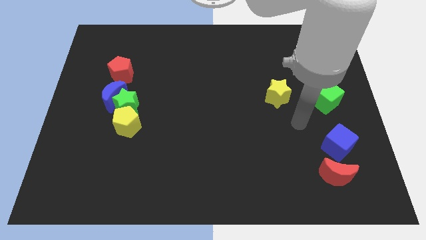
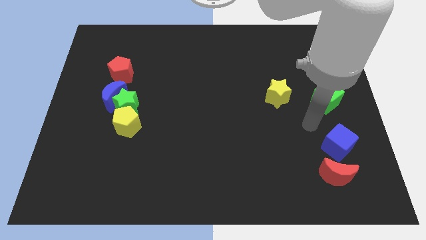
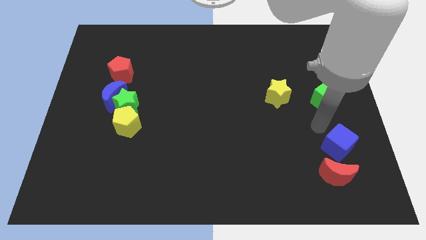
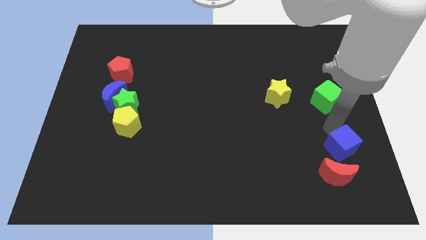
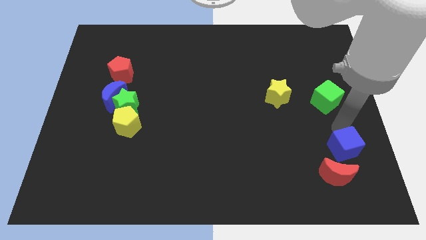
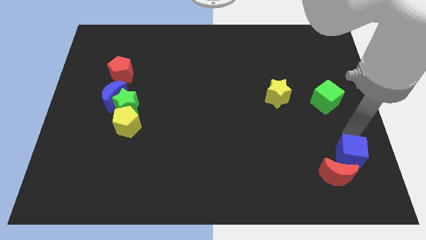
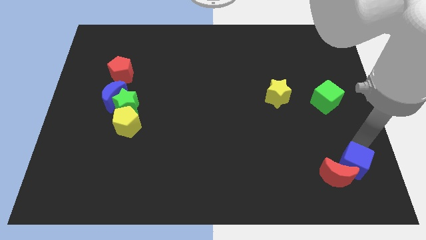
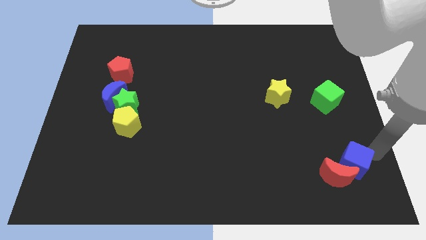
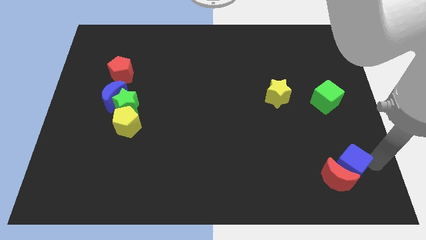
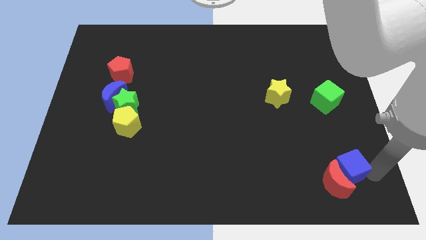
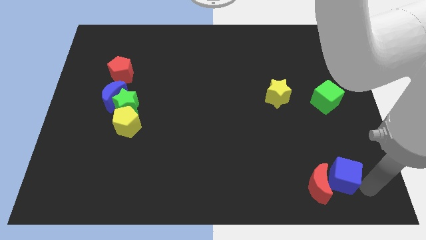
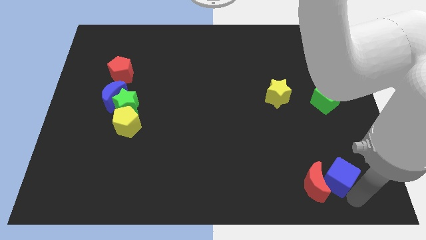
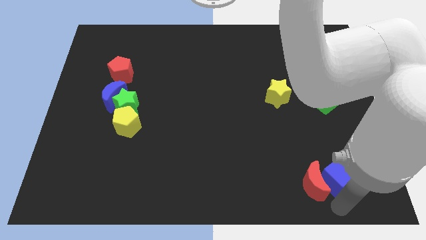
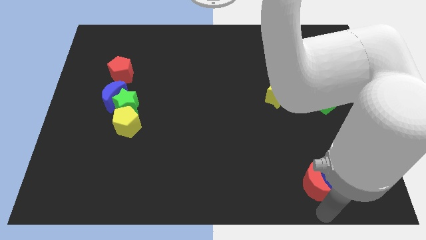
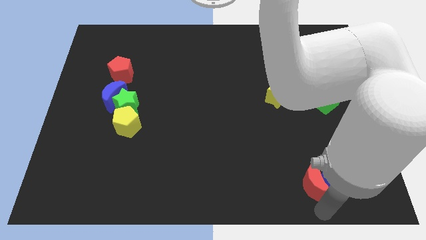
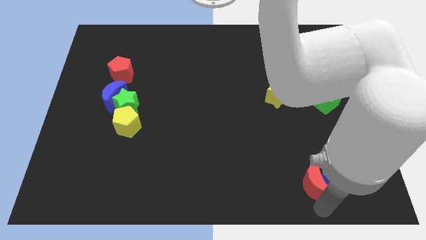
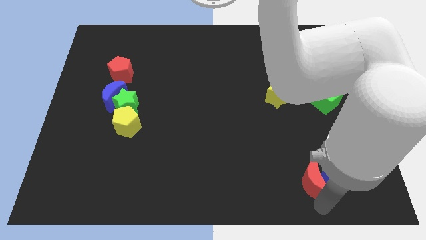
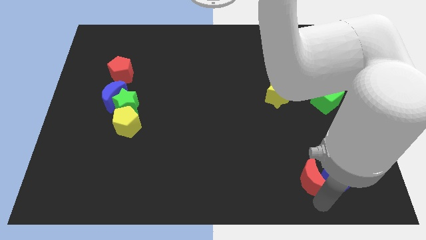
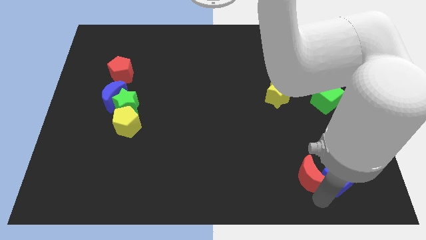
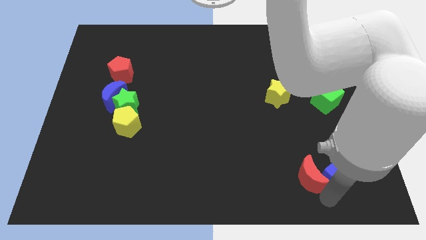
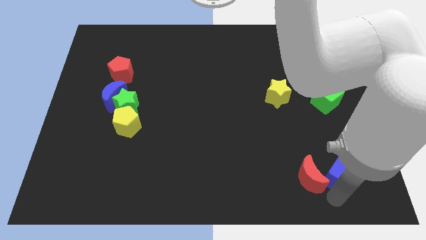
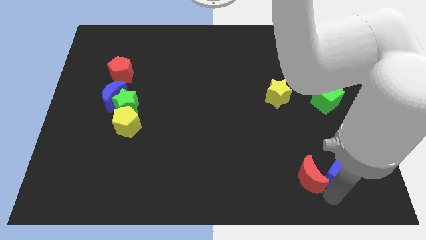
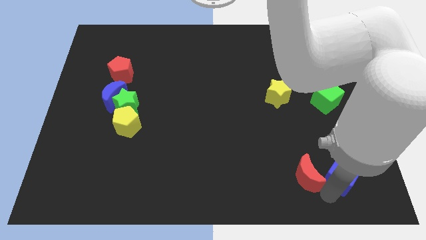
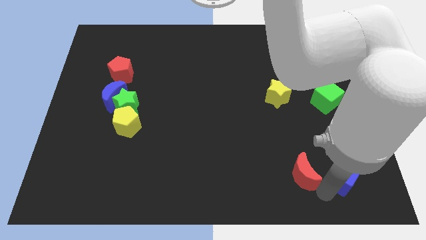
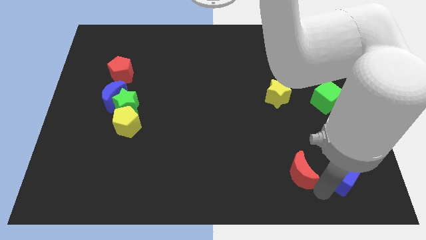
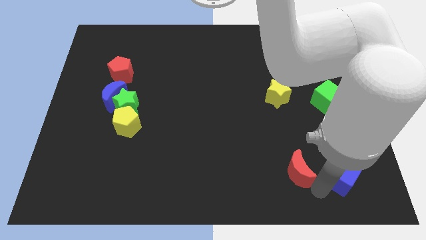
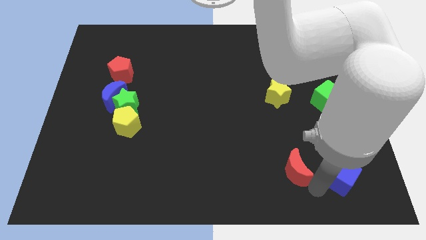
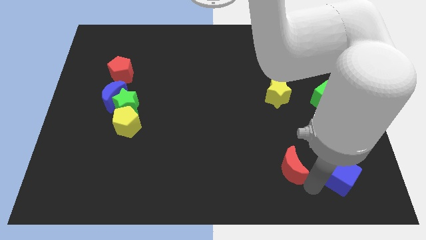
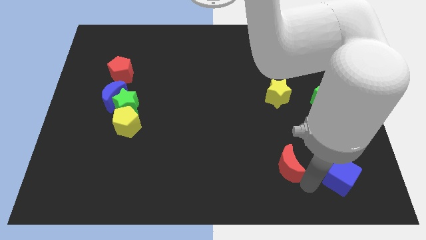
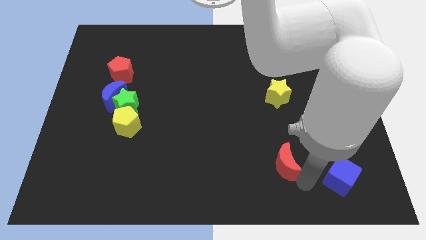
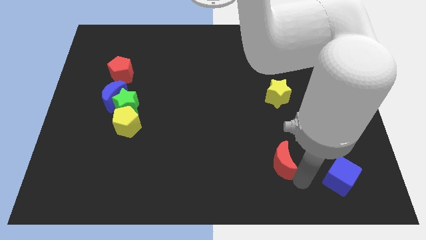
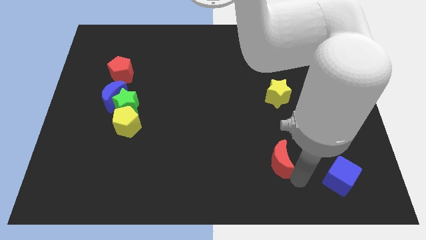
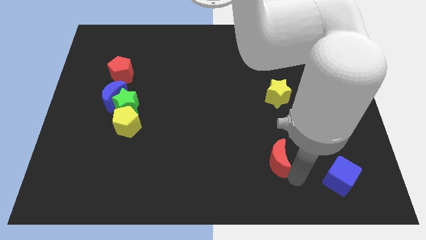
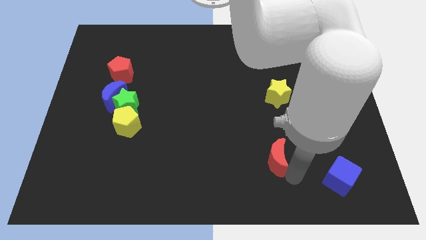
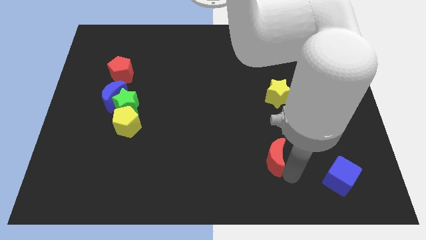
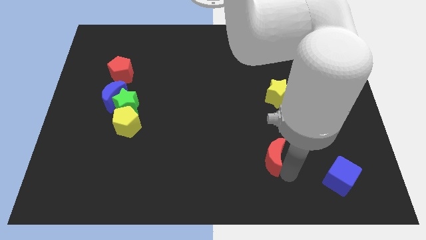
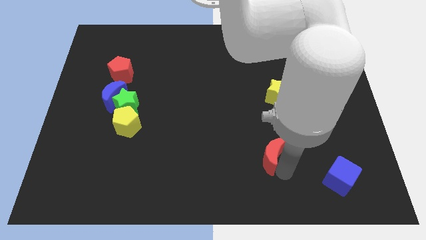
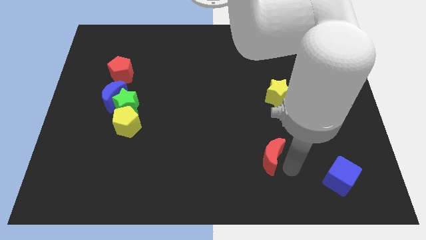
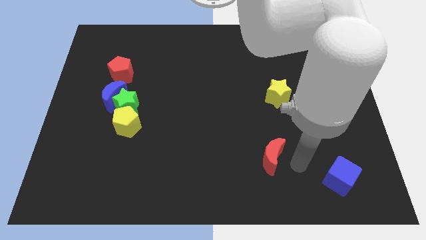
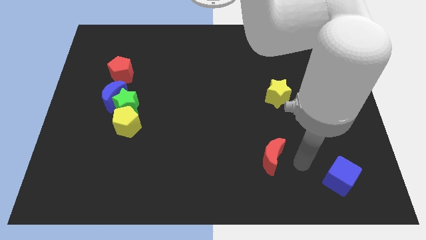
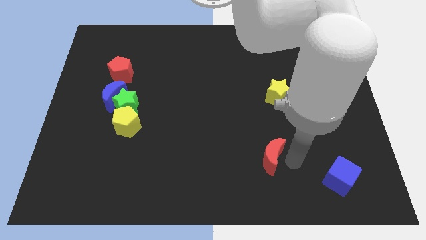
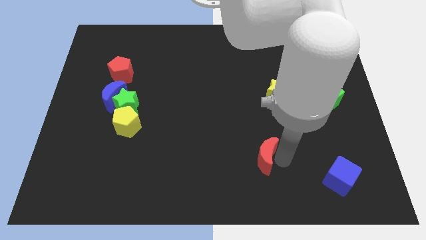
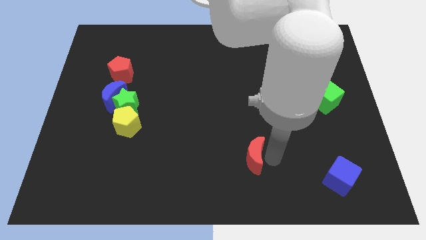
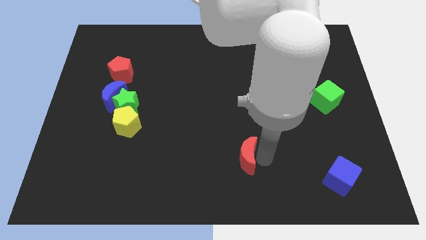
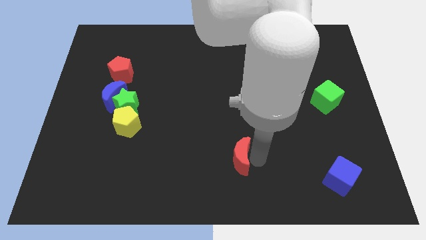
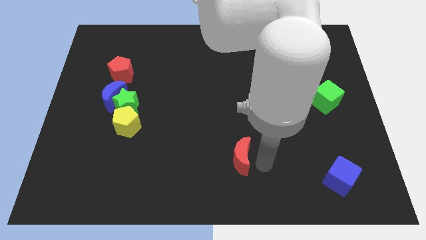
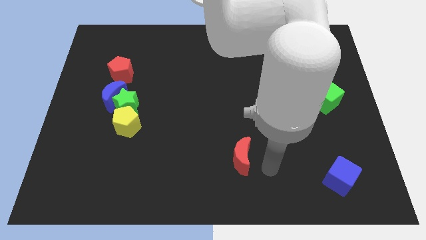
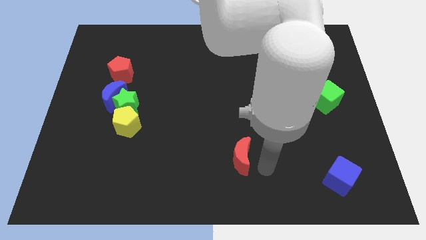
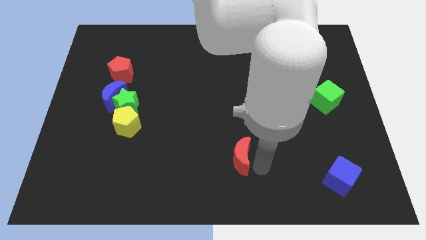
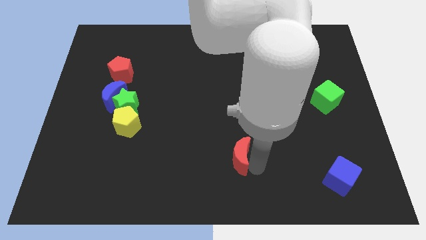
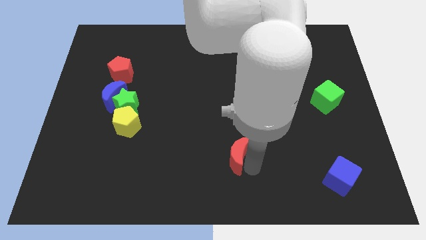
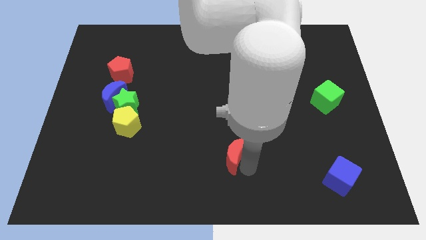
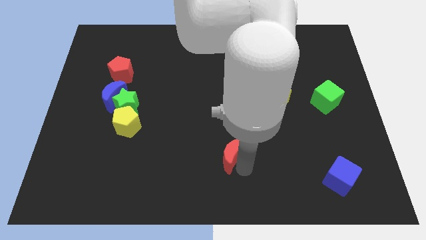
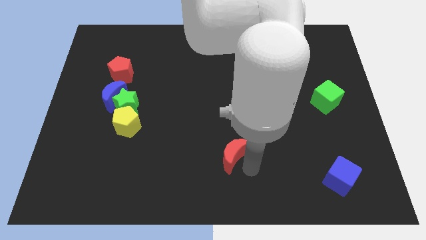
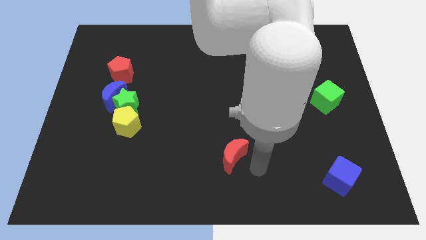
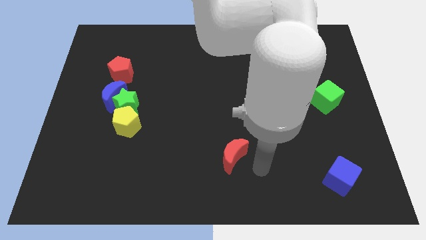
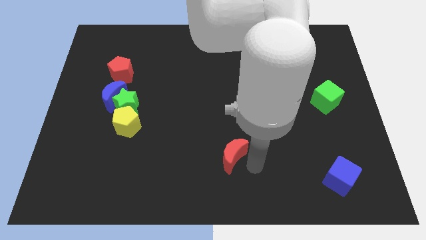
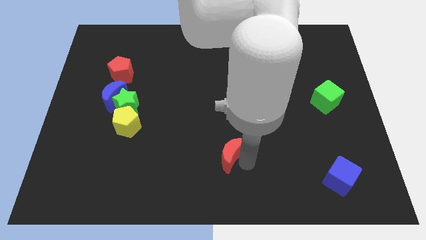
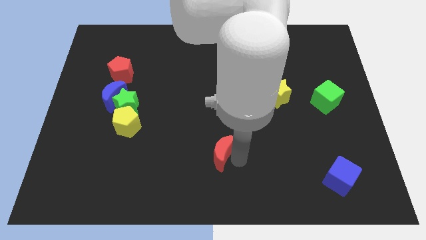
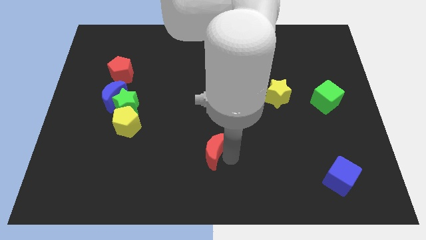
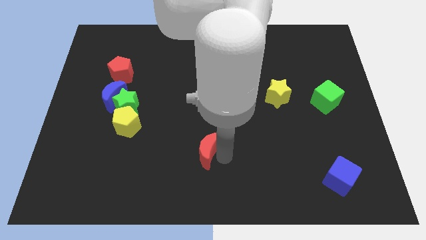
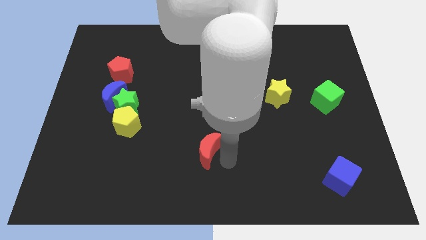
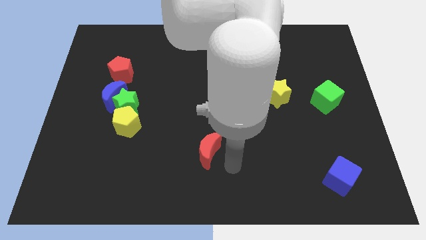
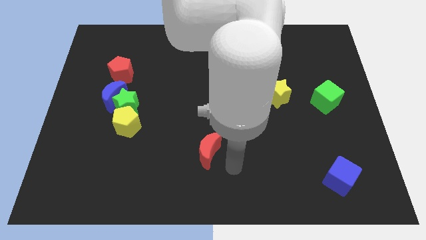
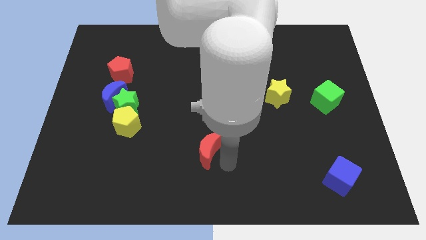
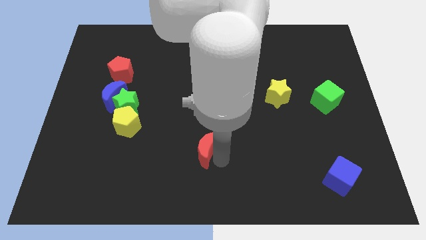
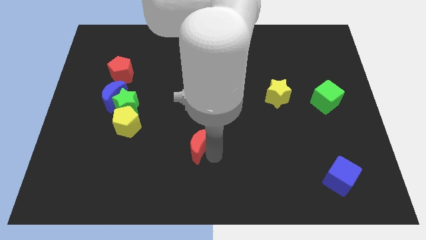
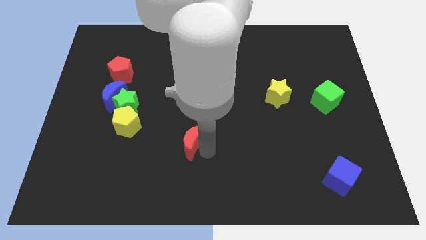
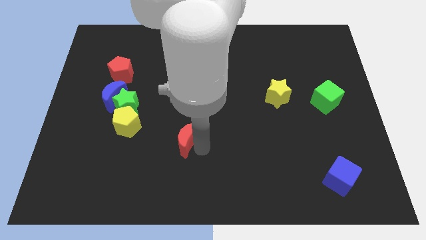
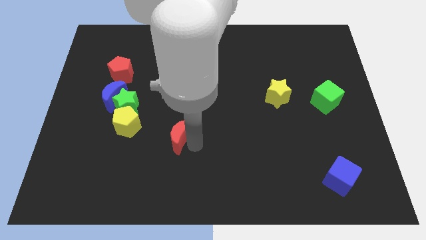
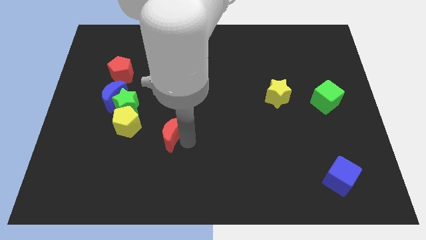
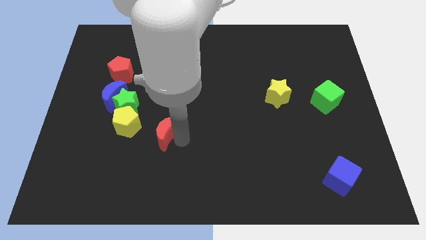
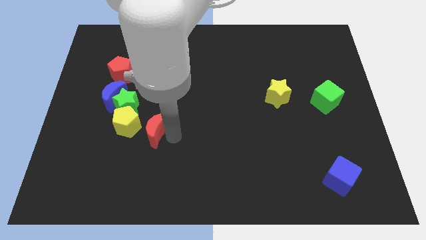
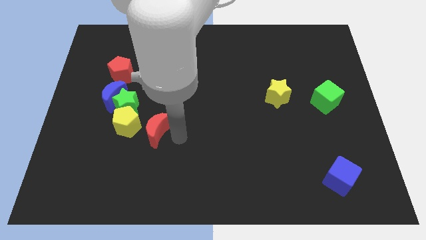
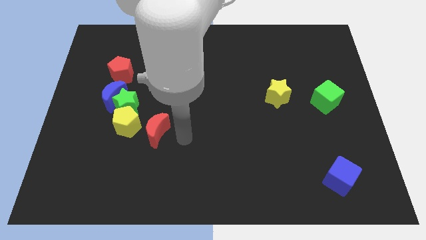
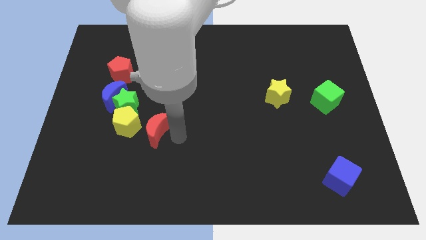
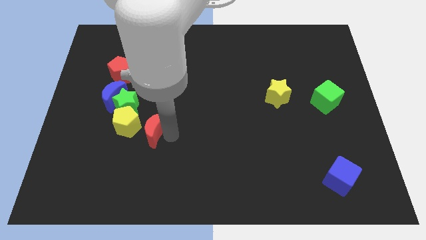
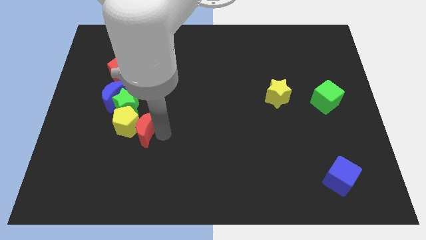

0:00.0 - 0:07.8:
put the red moon close to the yellow pentagon
